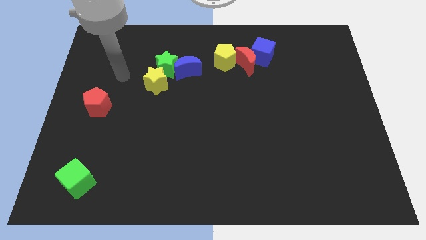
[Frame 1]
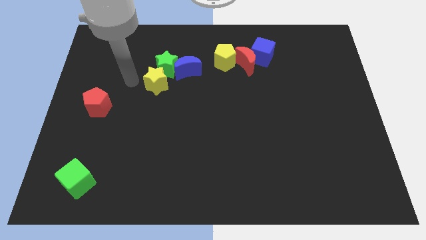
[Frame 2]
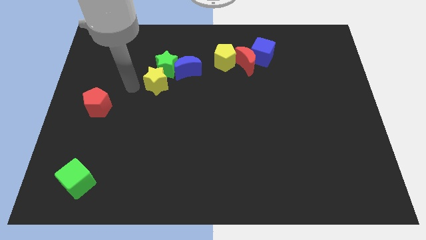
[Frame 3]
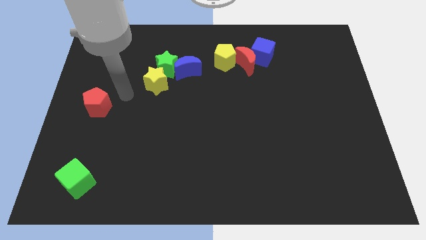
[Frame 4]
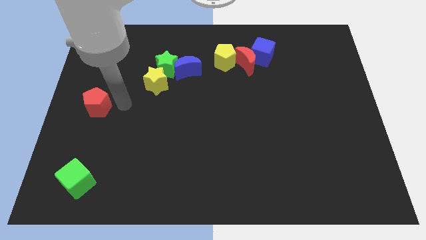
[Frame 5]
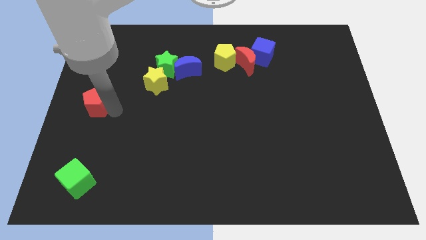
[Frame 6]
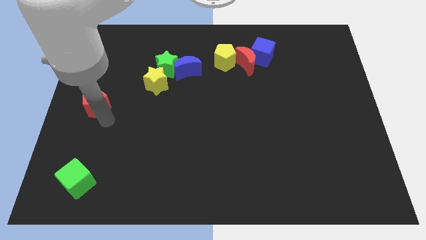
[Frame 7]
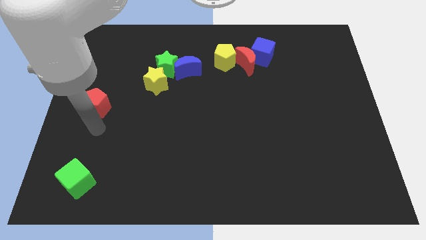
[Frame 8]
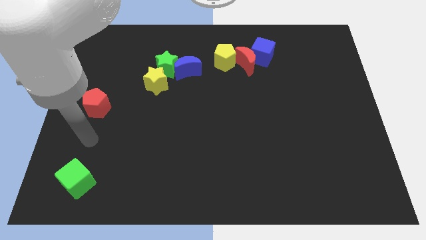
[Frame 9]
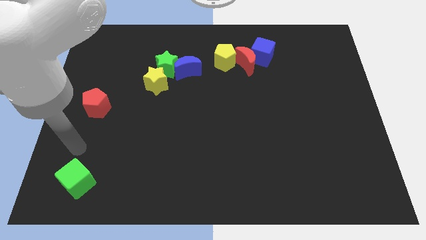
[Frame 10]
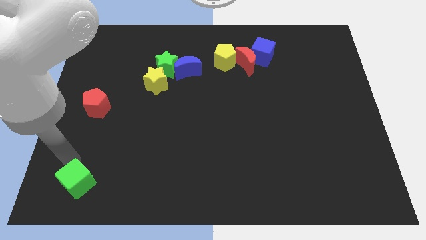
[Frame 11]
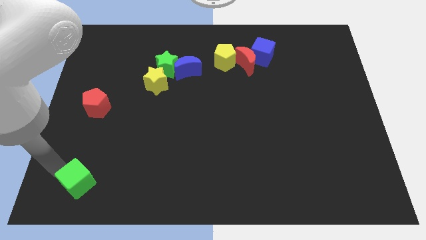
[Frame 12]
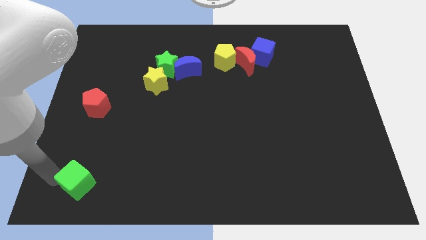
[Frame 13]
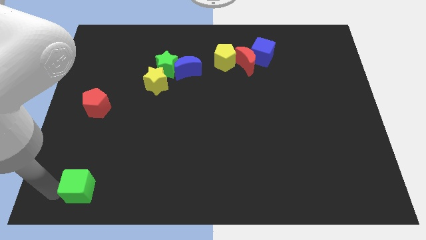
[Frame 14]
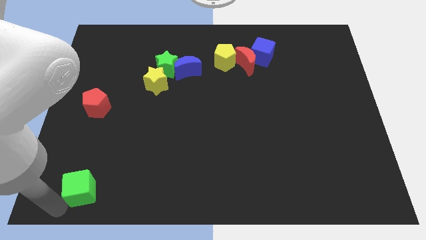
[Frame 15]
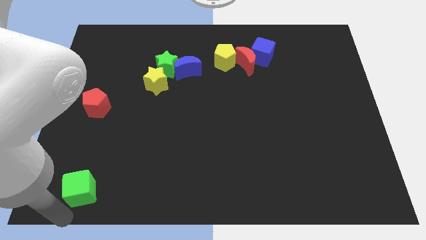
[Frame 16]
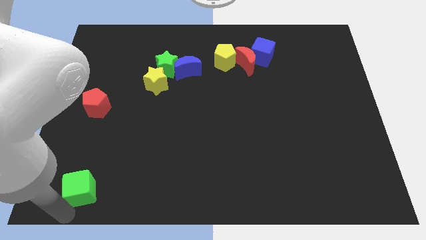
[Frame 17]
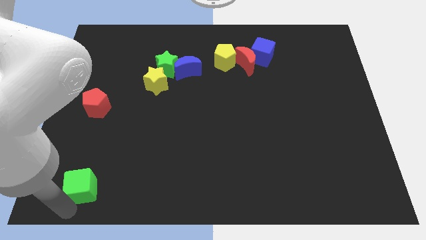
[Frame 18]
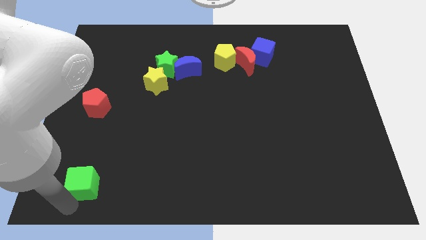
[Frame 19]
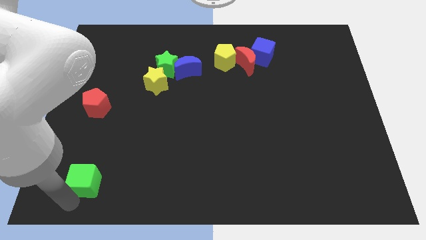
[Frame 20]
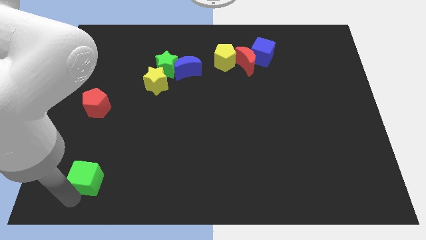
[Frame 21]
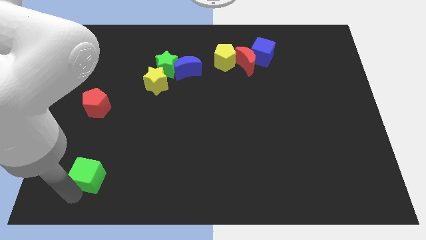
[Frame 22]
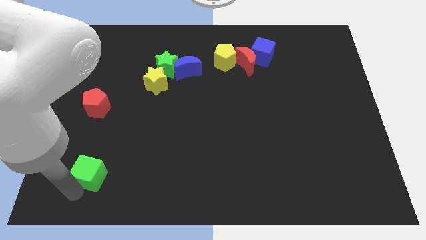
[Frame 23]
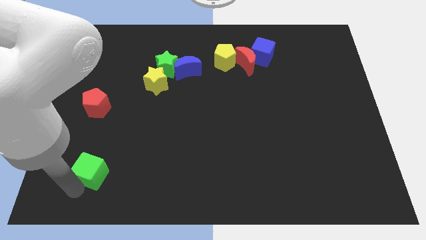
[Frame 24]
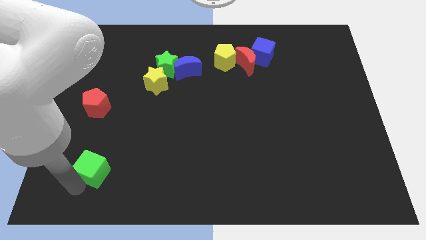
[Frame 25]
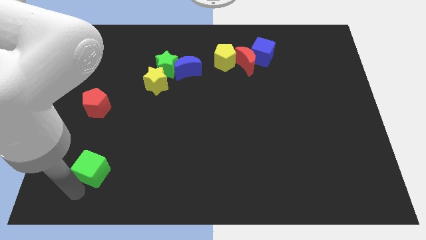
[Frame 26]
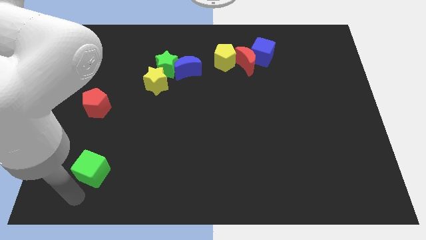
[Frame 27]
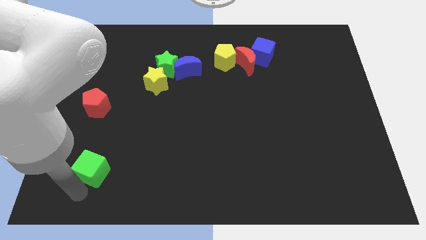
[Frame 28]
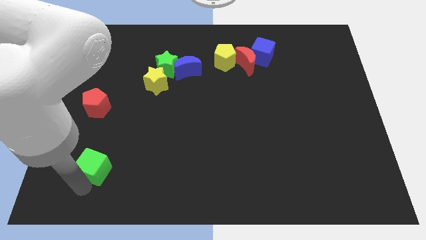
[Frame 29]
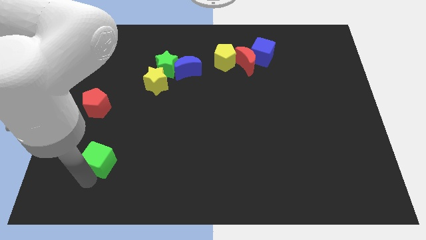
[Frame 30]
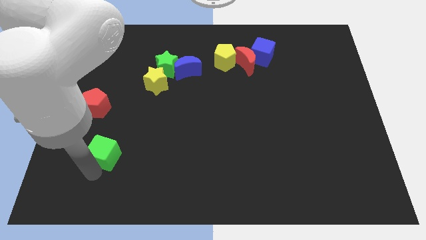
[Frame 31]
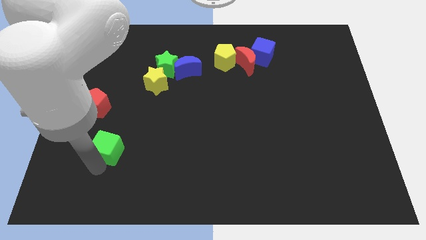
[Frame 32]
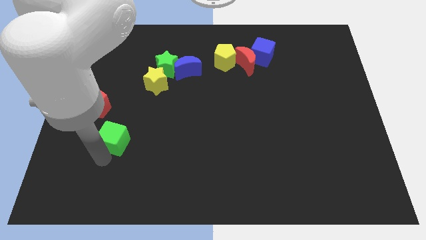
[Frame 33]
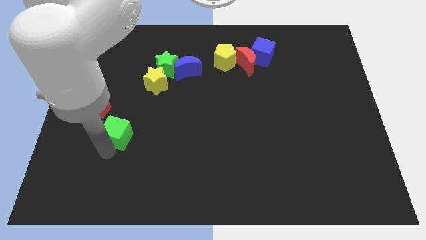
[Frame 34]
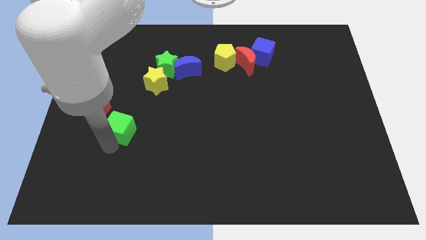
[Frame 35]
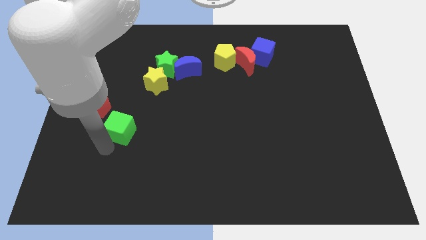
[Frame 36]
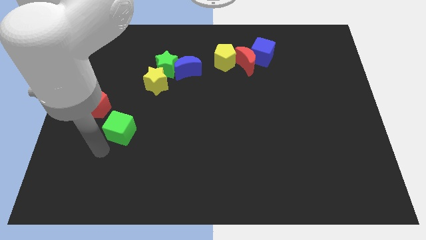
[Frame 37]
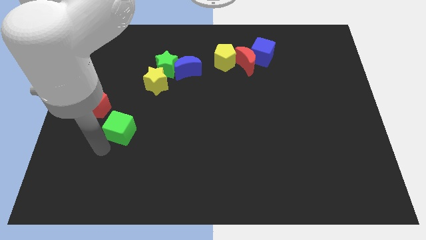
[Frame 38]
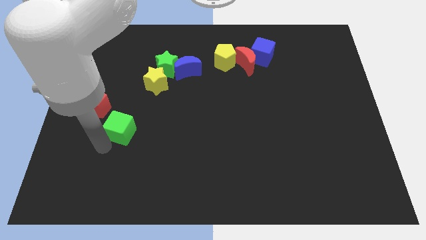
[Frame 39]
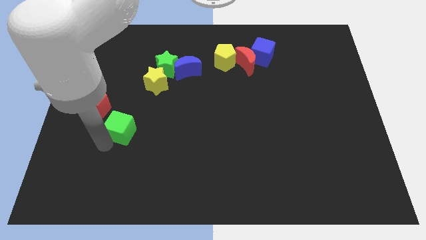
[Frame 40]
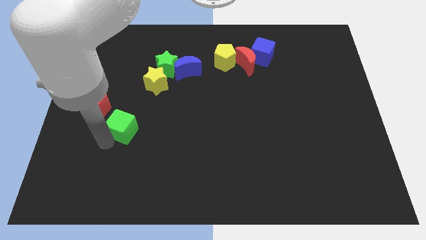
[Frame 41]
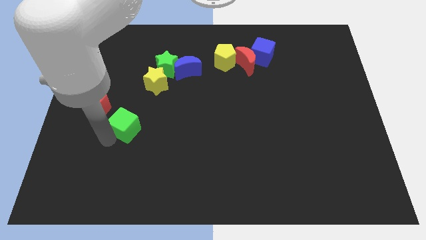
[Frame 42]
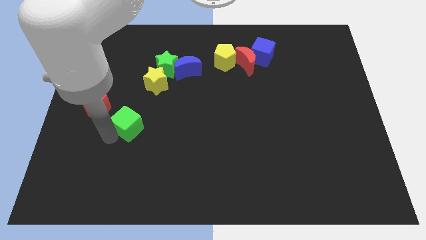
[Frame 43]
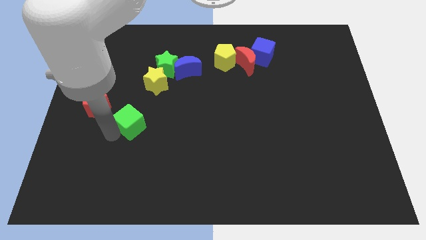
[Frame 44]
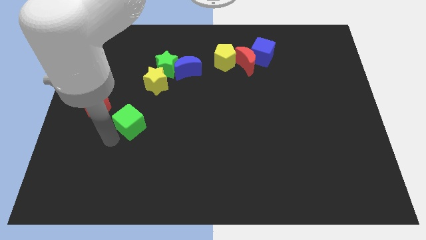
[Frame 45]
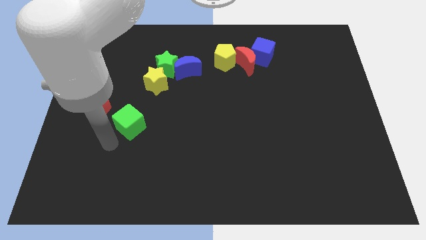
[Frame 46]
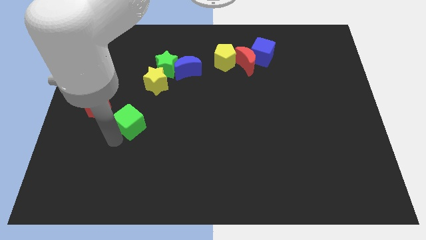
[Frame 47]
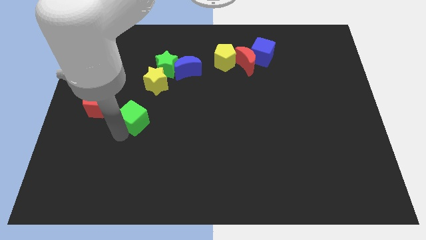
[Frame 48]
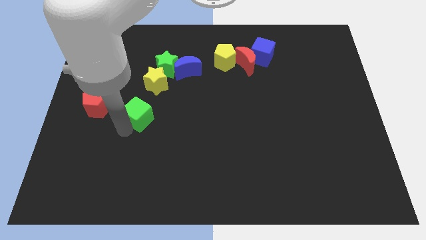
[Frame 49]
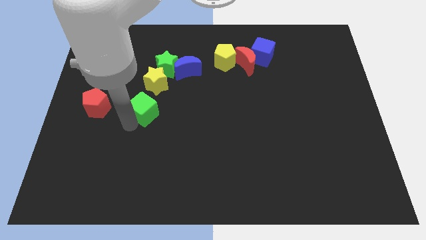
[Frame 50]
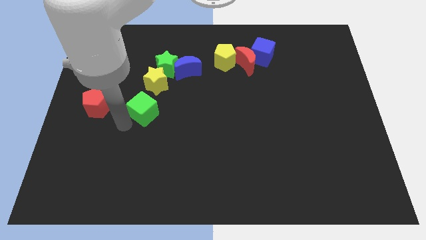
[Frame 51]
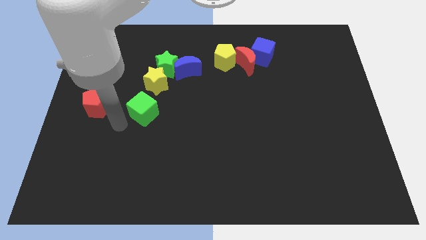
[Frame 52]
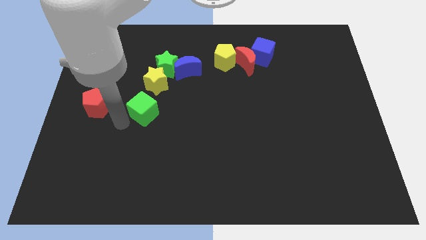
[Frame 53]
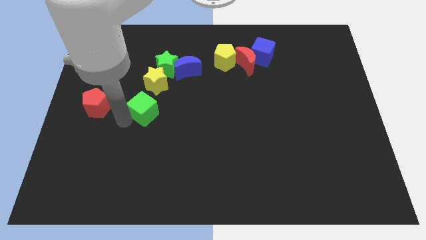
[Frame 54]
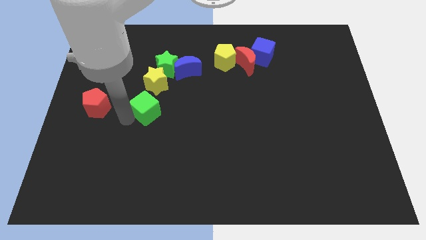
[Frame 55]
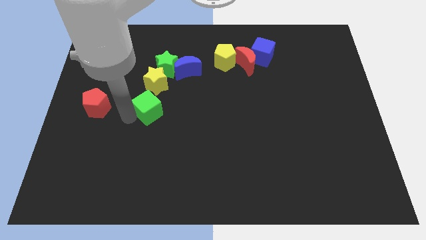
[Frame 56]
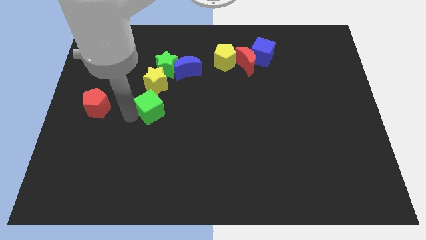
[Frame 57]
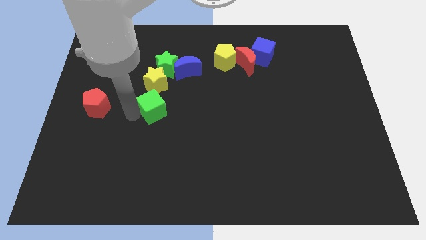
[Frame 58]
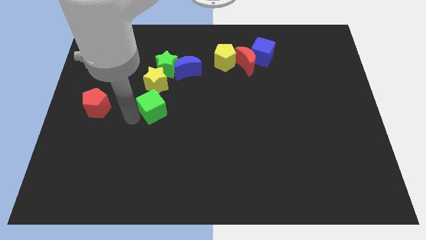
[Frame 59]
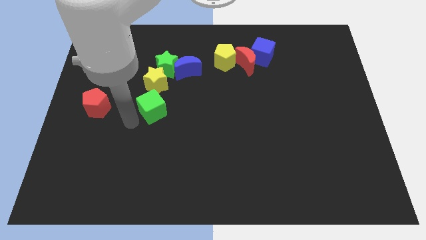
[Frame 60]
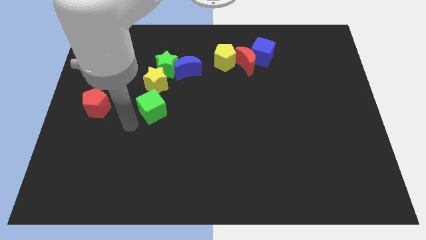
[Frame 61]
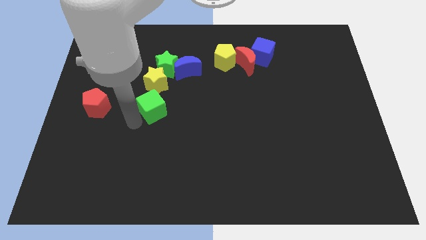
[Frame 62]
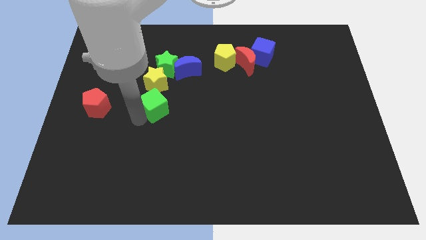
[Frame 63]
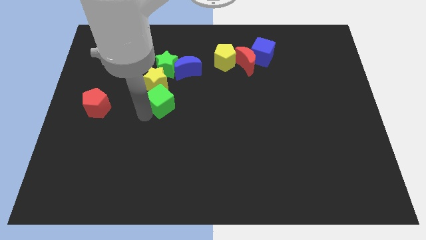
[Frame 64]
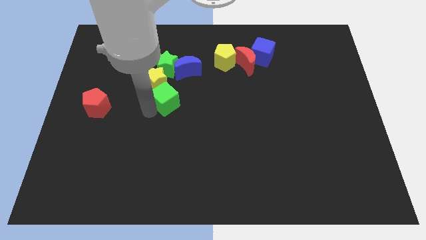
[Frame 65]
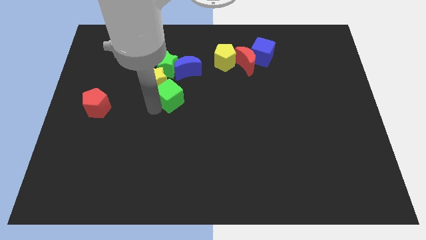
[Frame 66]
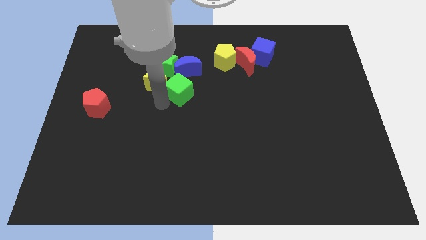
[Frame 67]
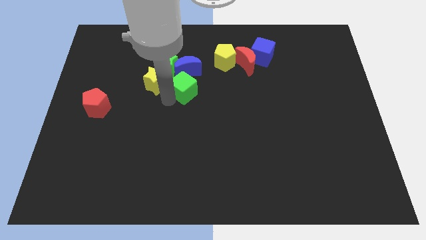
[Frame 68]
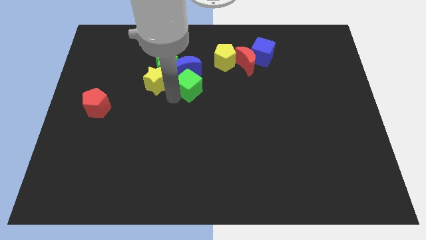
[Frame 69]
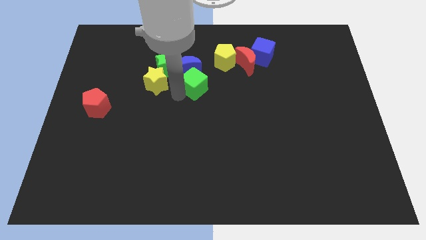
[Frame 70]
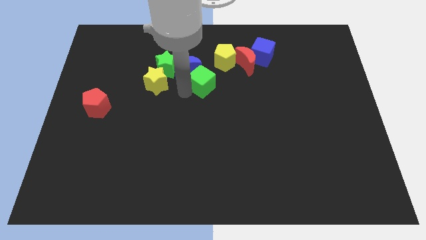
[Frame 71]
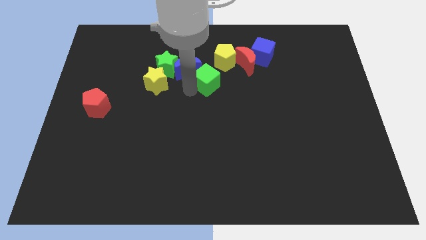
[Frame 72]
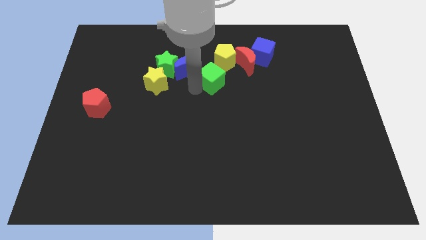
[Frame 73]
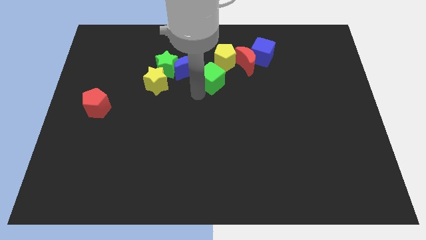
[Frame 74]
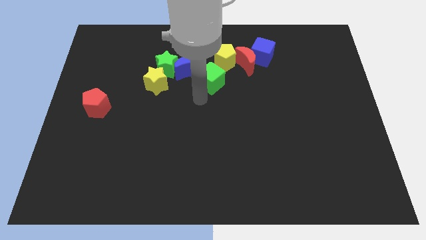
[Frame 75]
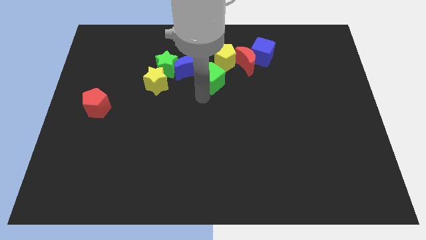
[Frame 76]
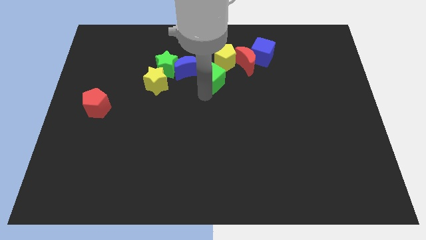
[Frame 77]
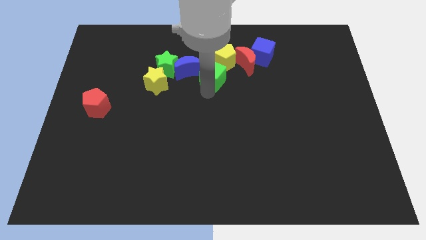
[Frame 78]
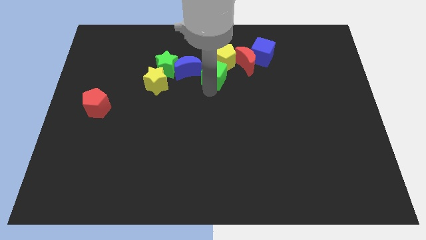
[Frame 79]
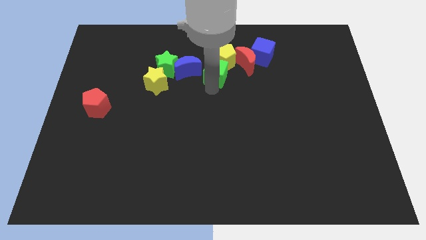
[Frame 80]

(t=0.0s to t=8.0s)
slide the green cube close to the yellow pentagon
